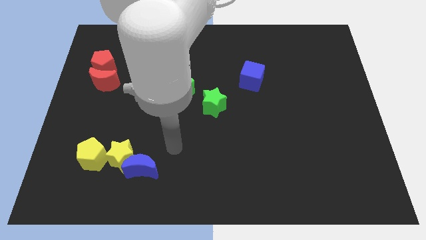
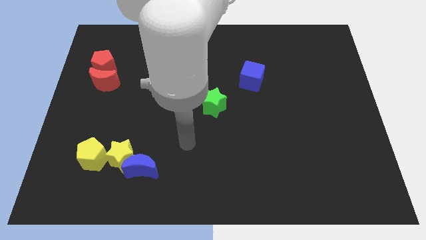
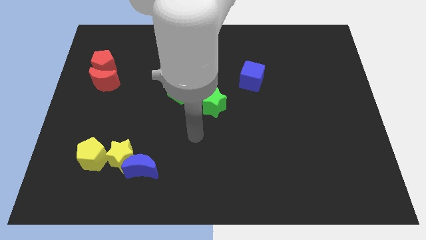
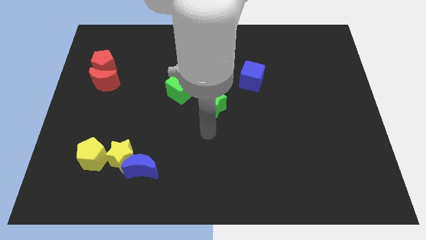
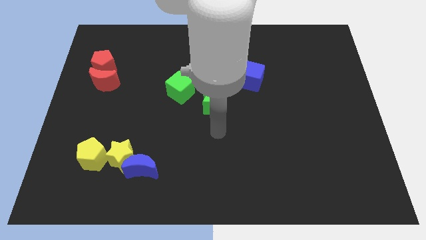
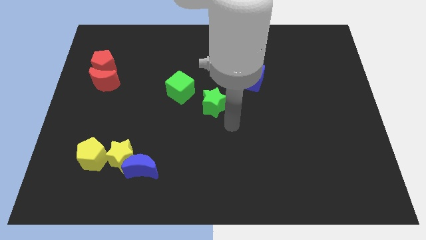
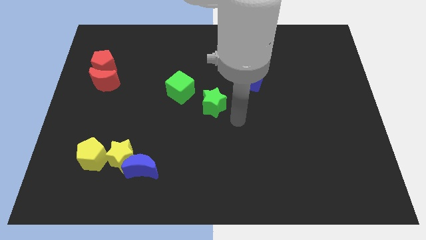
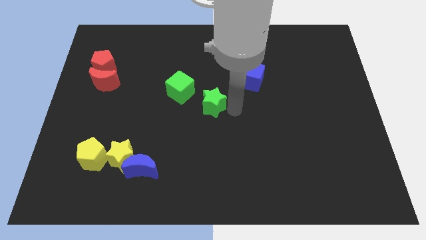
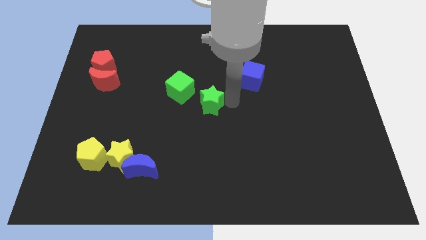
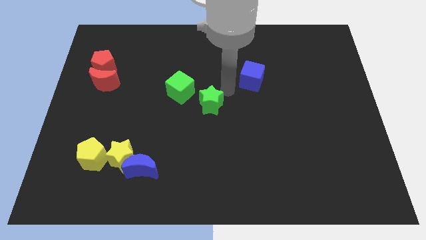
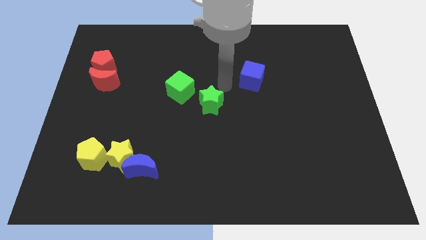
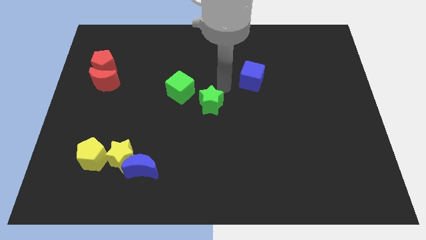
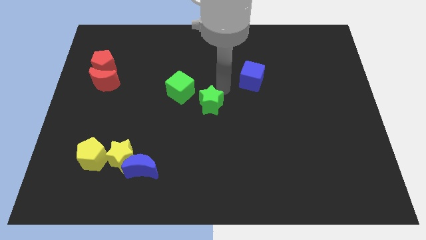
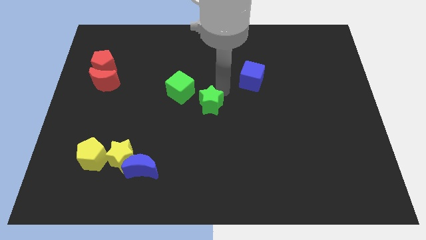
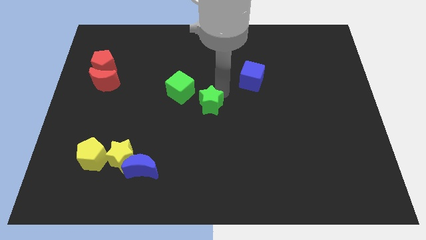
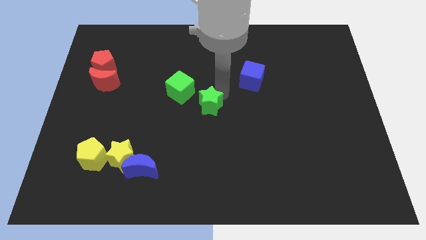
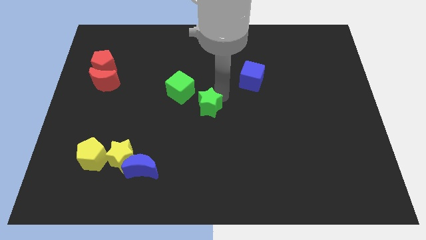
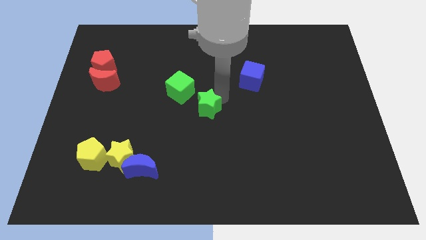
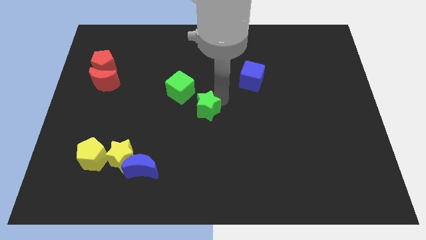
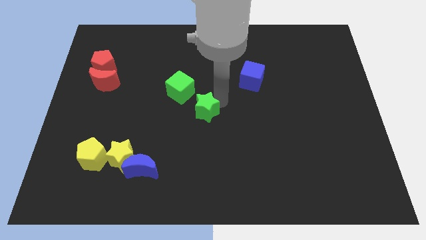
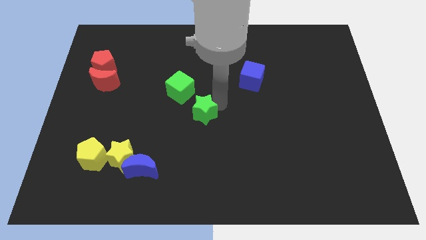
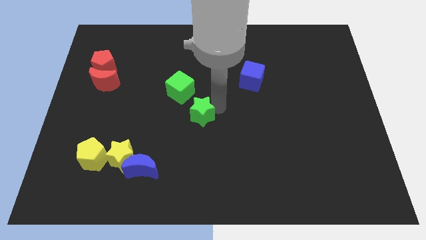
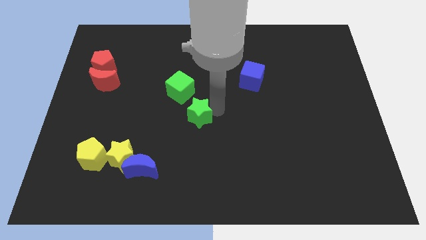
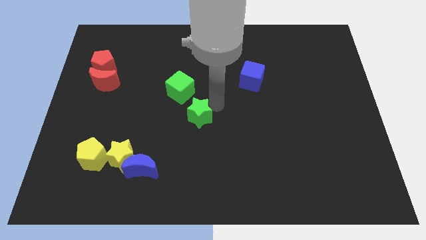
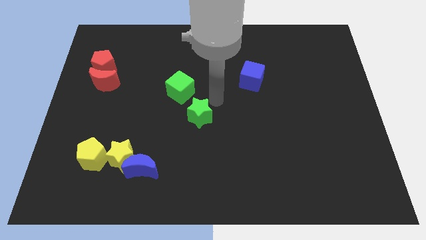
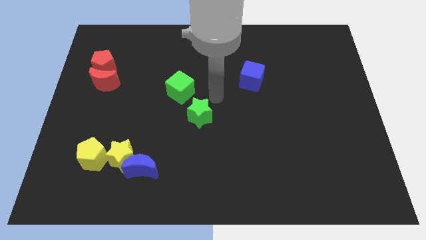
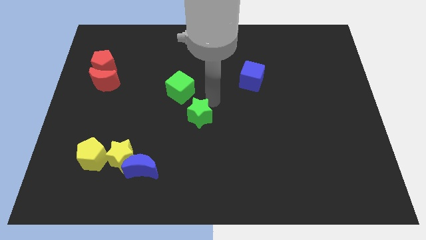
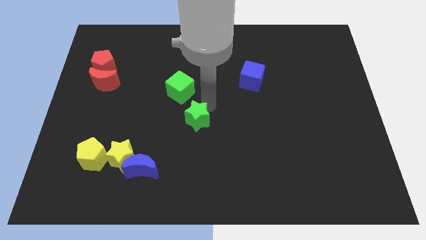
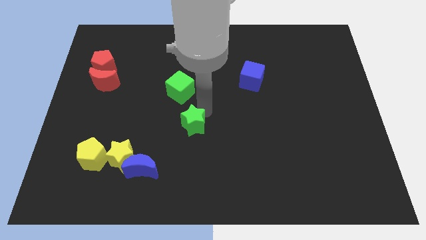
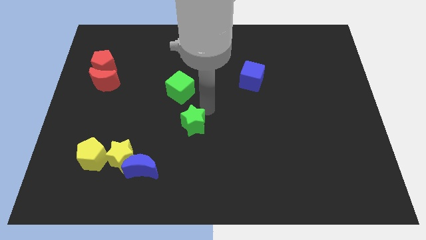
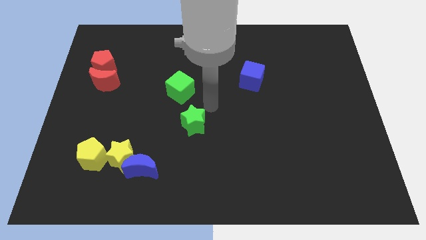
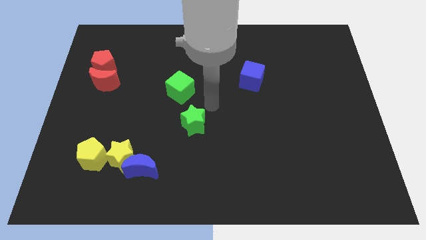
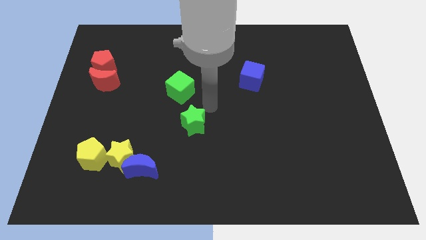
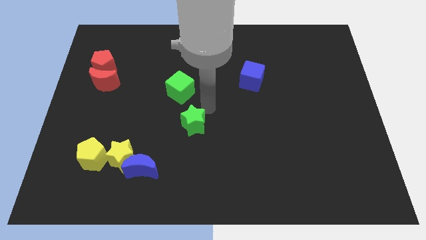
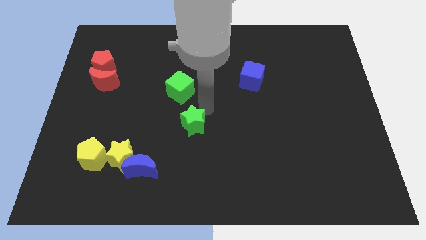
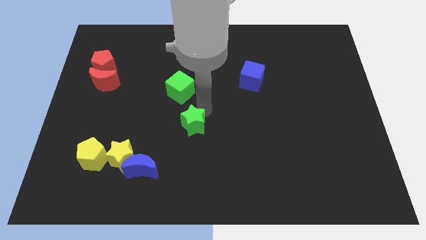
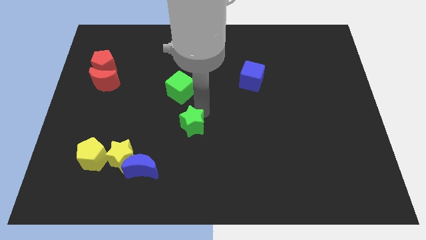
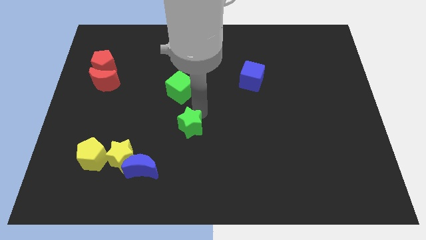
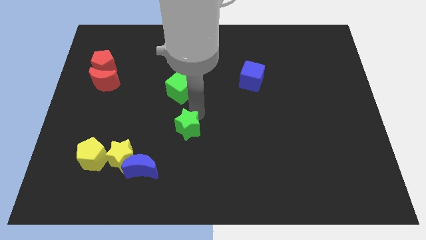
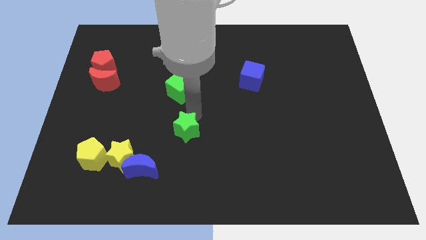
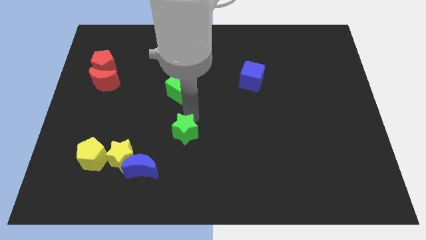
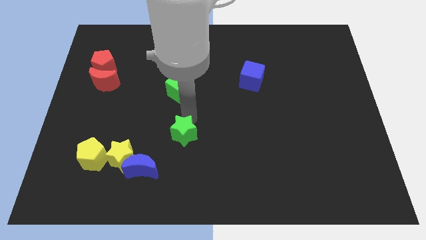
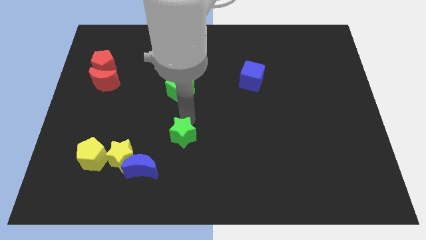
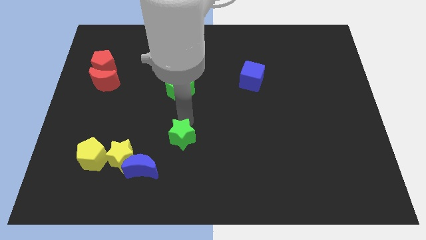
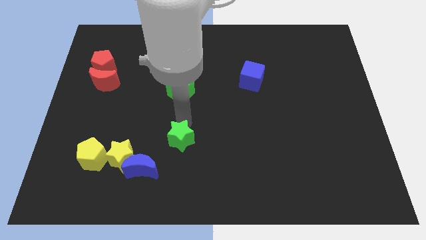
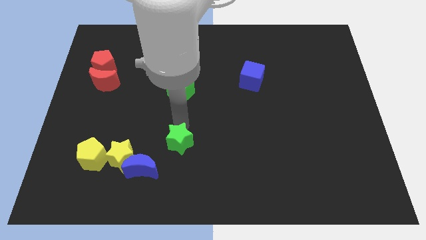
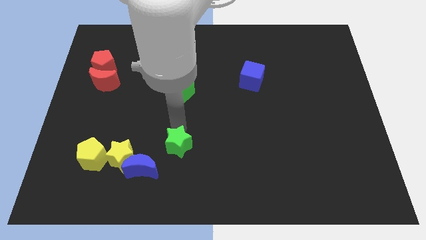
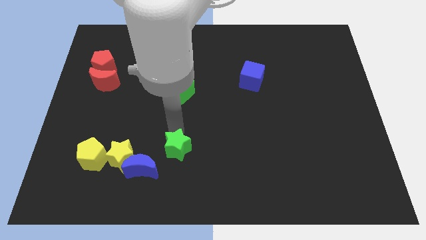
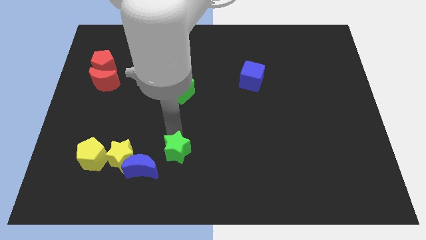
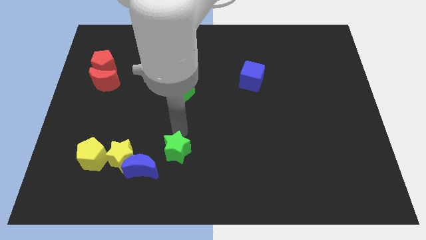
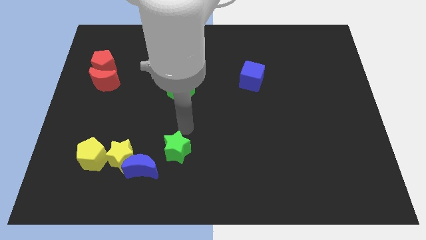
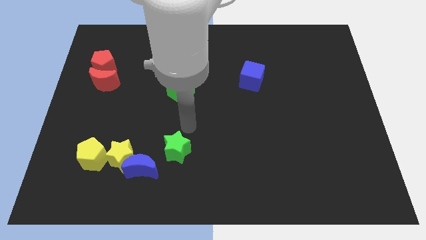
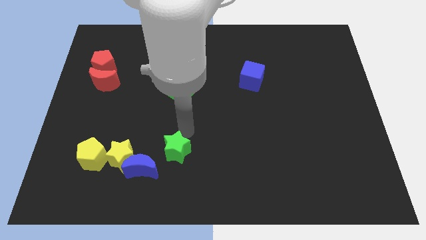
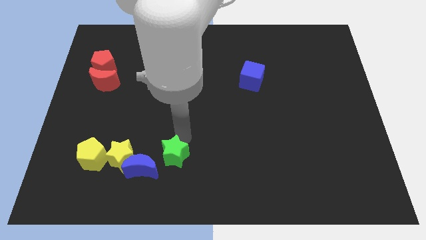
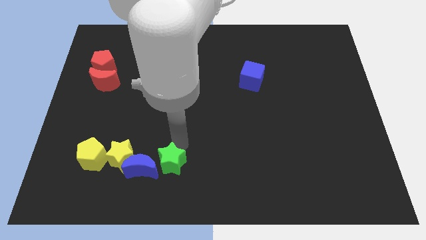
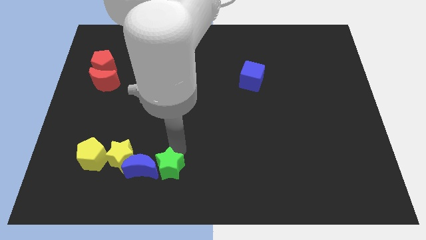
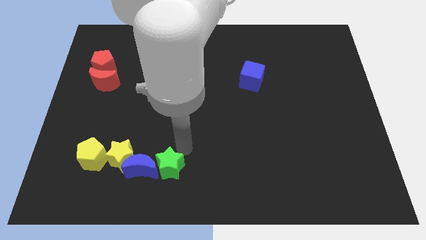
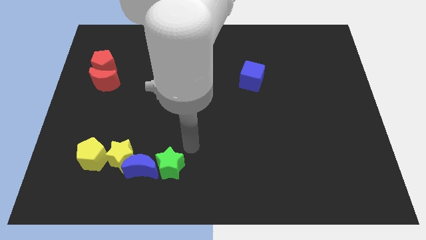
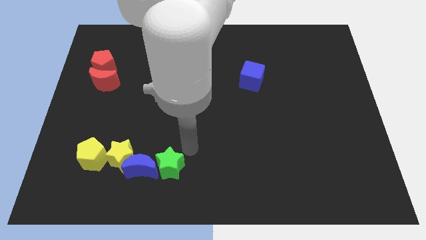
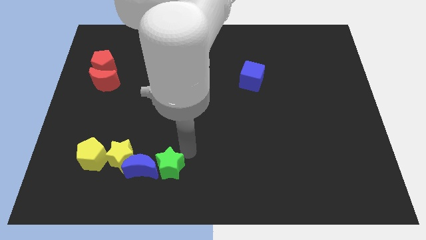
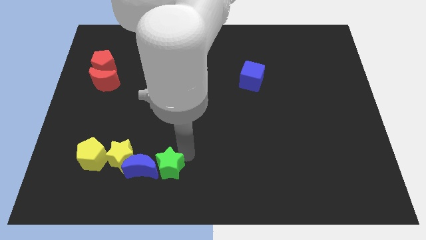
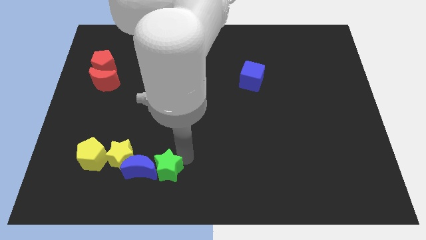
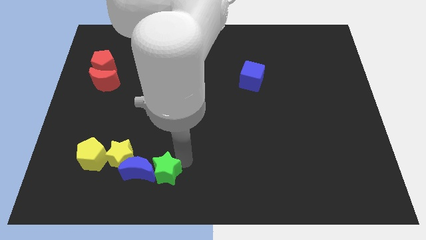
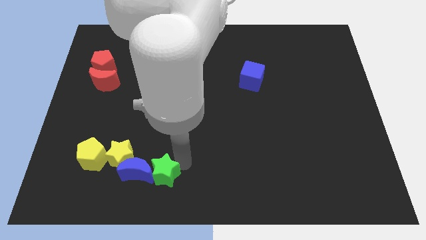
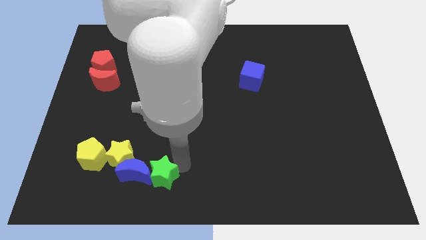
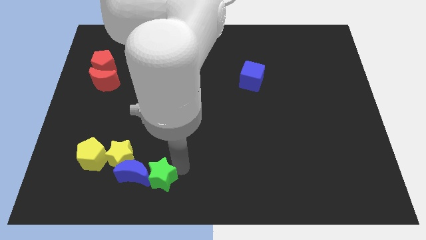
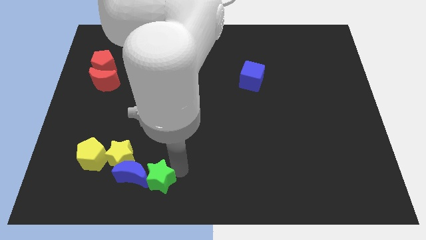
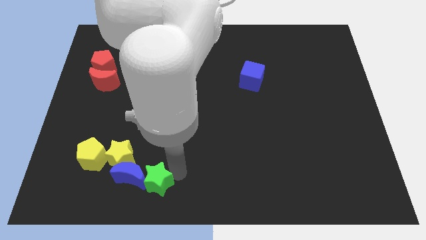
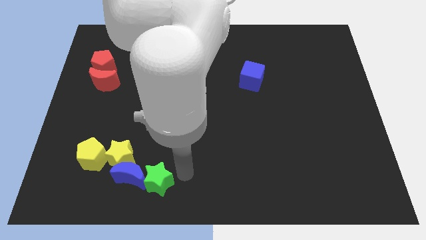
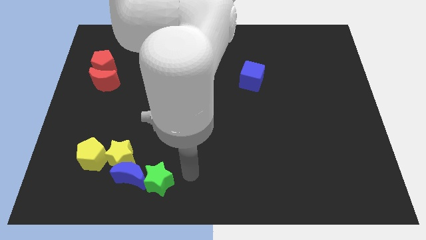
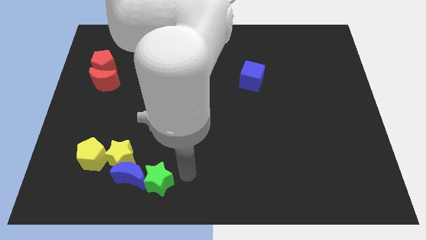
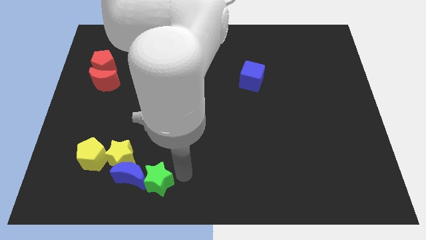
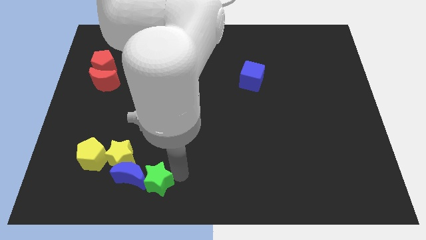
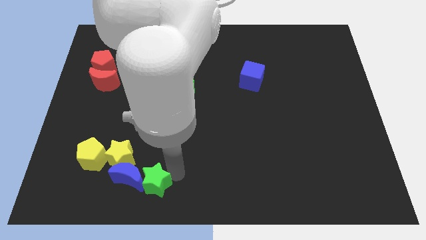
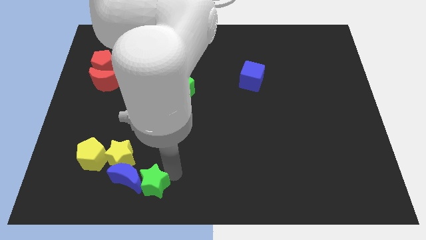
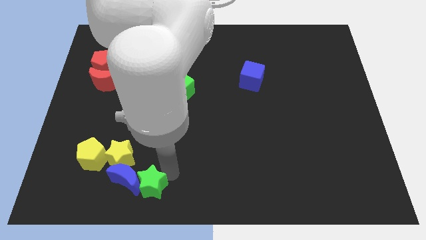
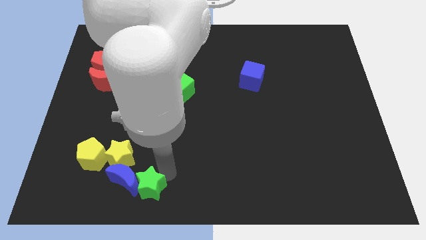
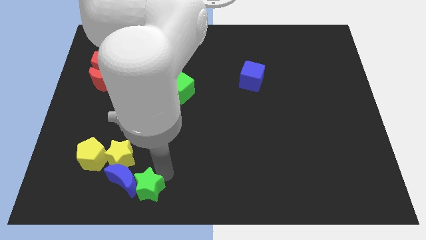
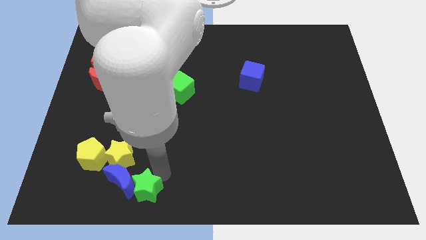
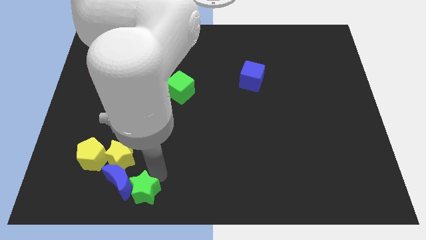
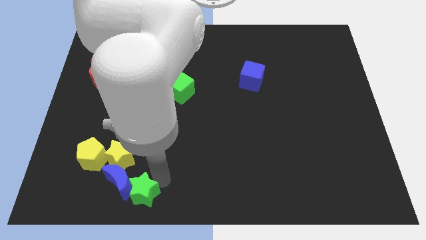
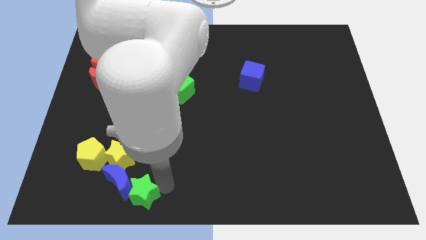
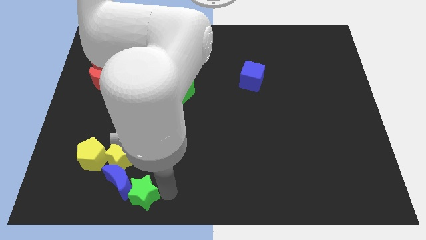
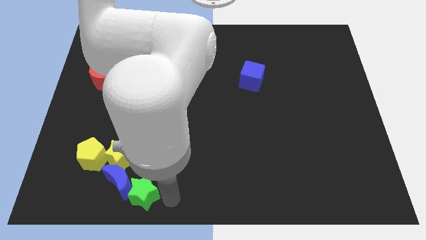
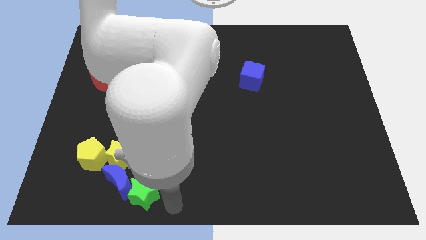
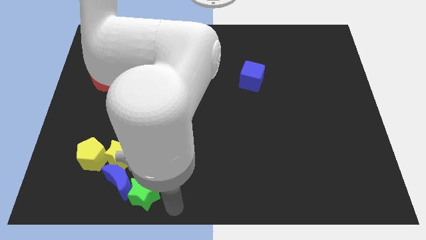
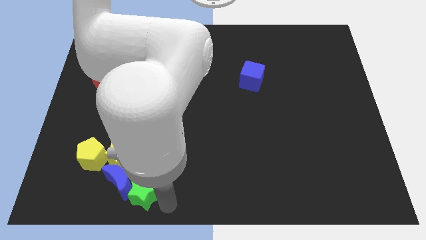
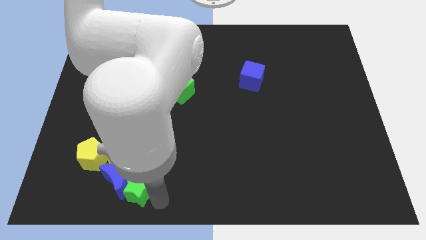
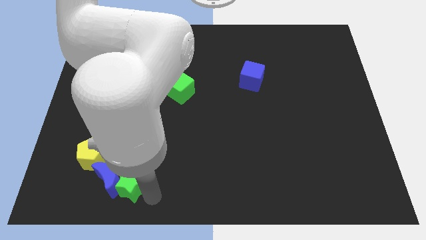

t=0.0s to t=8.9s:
slide the green star to the bottom right of the yellow pentagon
